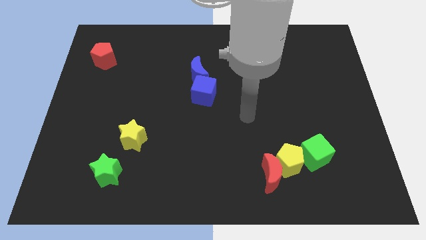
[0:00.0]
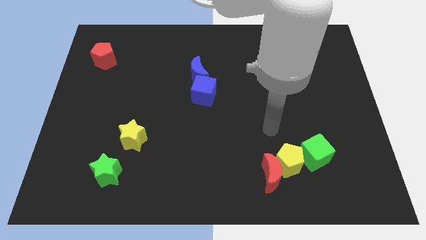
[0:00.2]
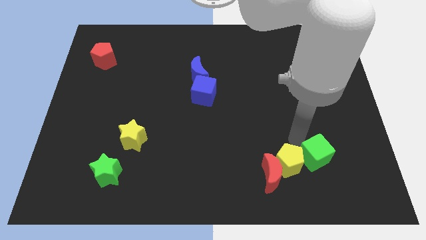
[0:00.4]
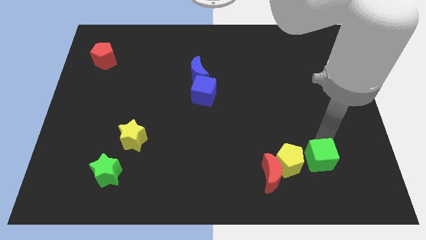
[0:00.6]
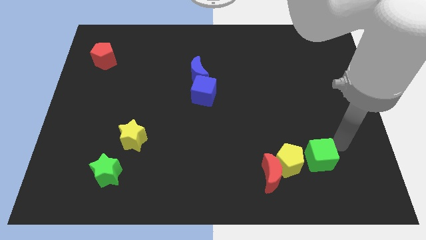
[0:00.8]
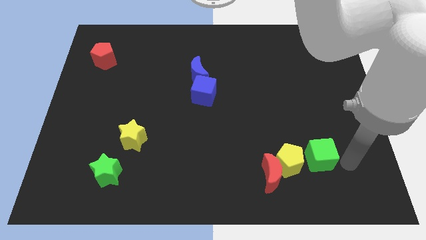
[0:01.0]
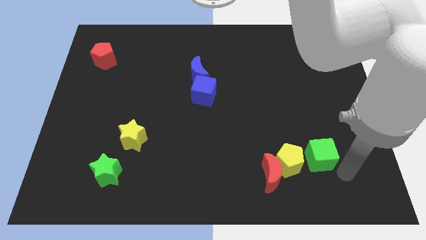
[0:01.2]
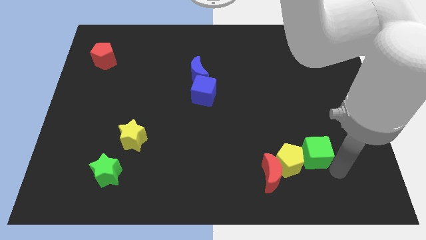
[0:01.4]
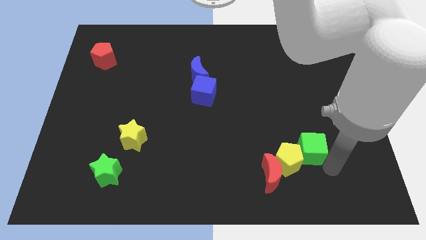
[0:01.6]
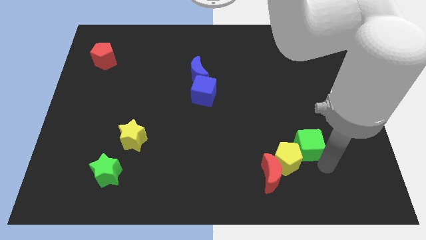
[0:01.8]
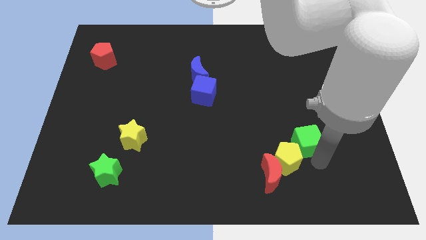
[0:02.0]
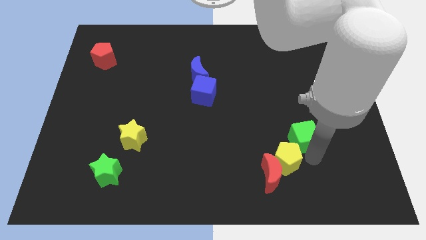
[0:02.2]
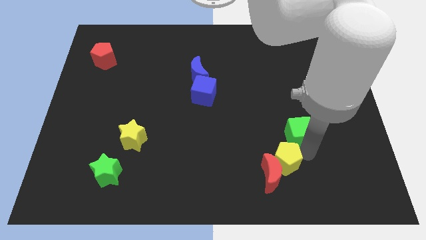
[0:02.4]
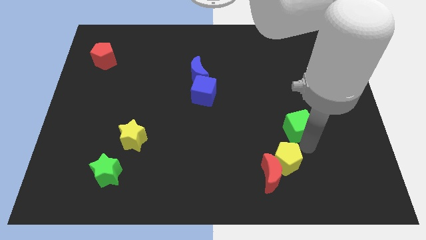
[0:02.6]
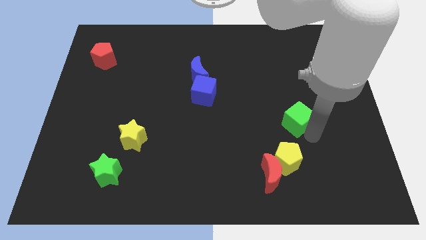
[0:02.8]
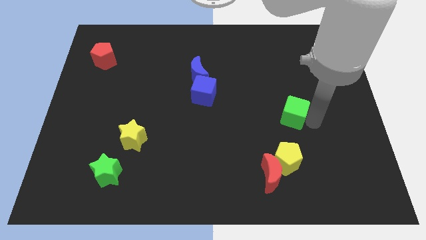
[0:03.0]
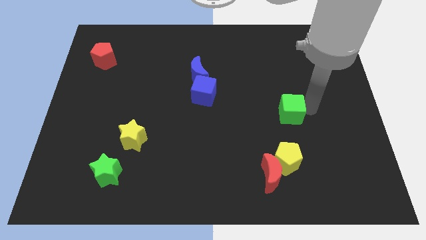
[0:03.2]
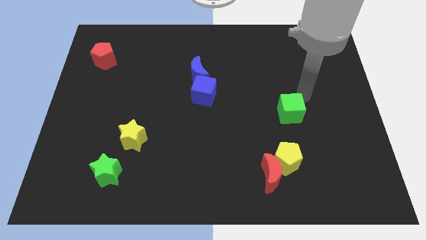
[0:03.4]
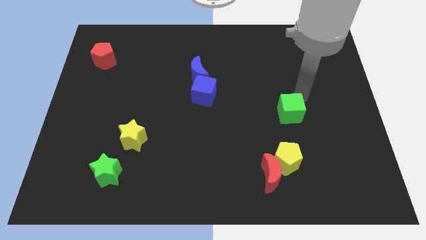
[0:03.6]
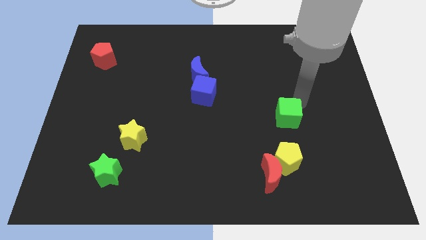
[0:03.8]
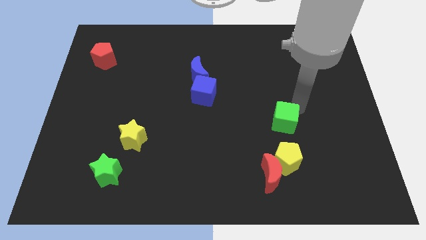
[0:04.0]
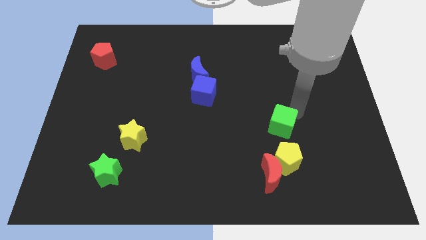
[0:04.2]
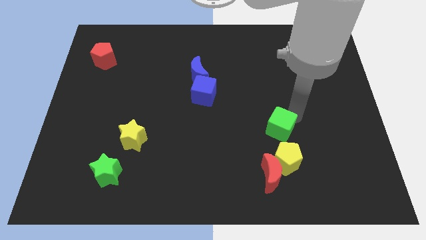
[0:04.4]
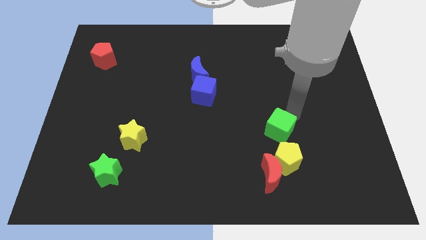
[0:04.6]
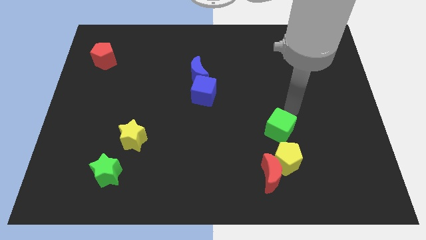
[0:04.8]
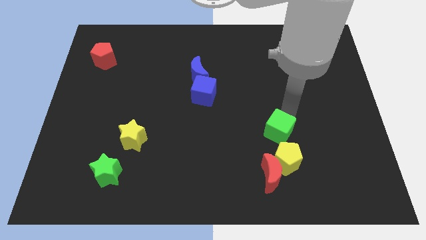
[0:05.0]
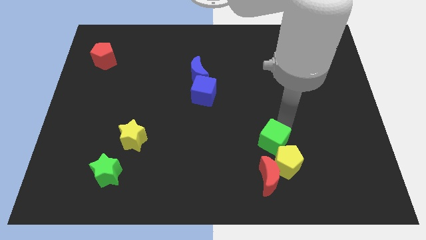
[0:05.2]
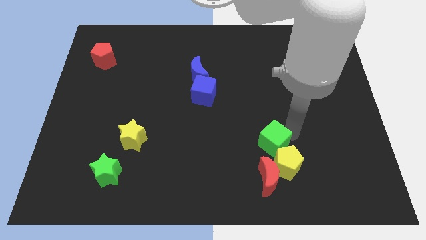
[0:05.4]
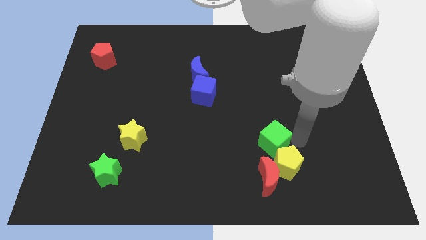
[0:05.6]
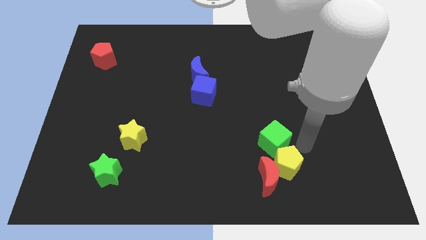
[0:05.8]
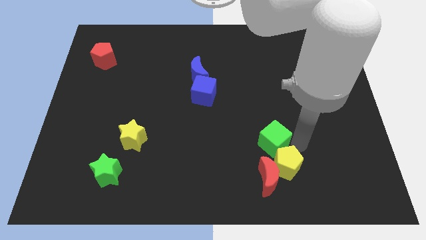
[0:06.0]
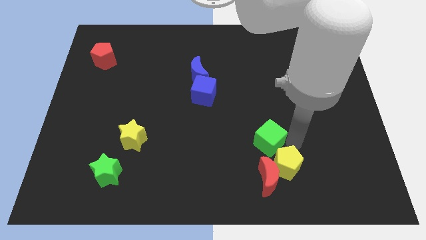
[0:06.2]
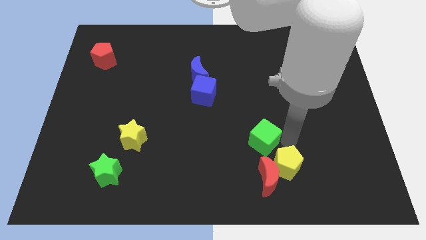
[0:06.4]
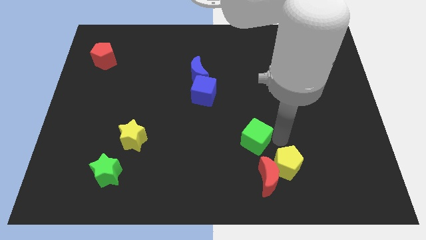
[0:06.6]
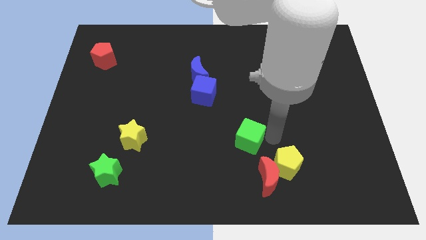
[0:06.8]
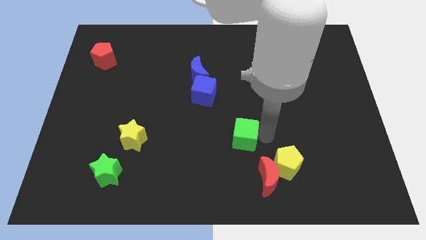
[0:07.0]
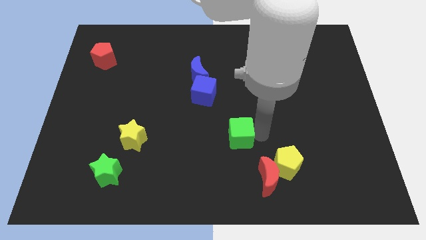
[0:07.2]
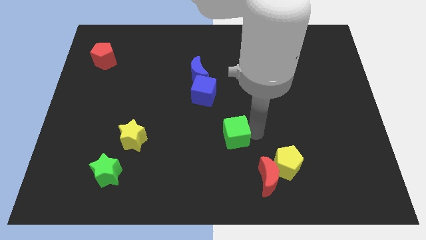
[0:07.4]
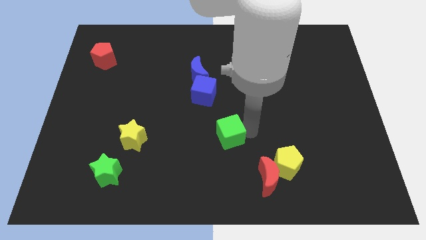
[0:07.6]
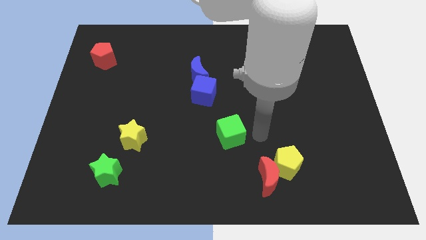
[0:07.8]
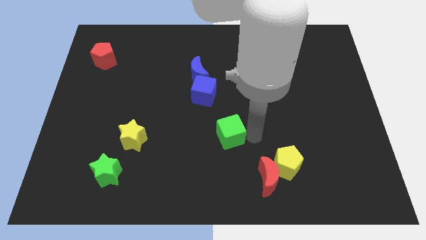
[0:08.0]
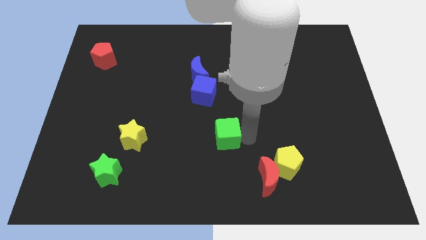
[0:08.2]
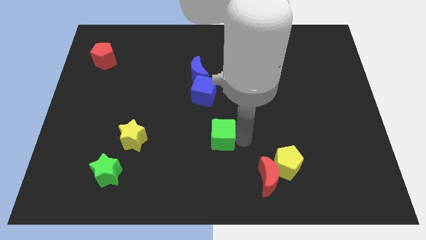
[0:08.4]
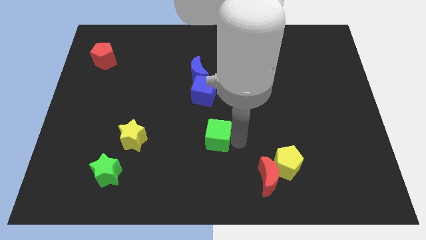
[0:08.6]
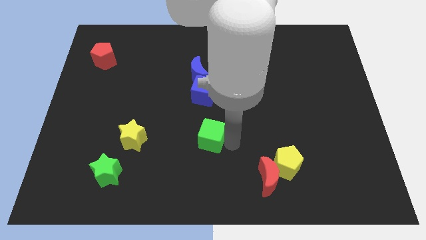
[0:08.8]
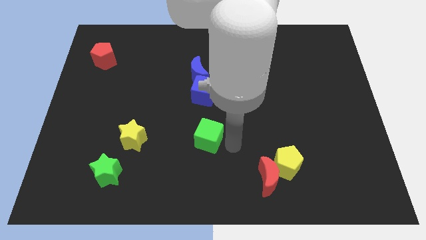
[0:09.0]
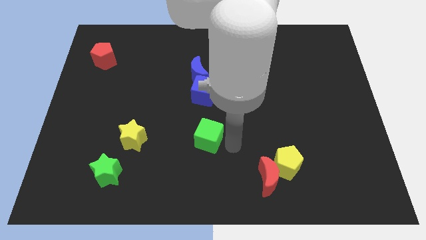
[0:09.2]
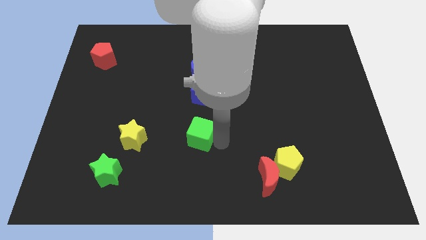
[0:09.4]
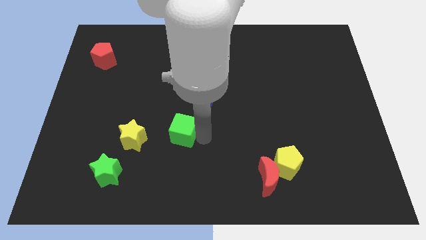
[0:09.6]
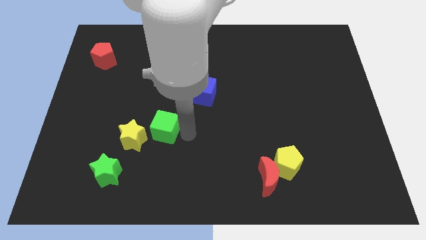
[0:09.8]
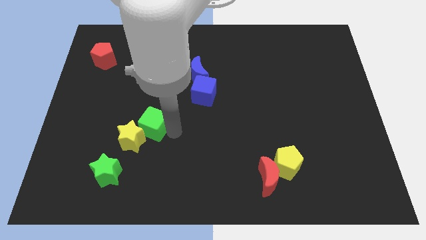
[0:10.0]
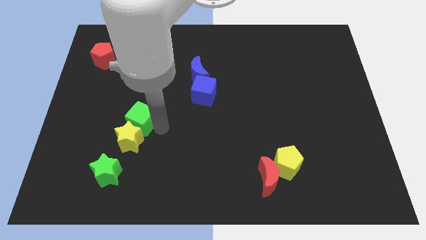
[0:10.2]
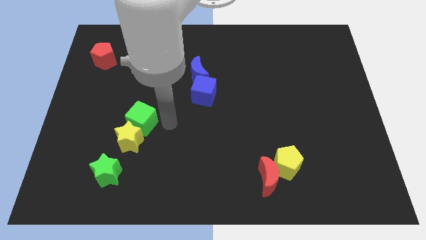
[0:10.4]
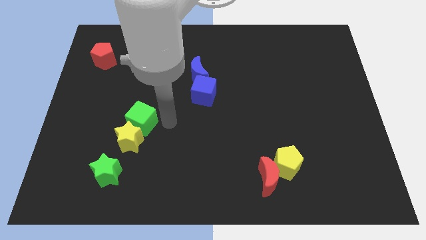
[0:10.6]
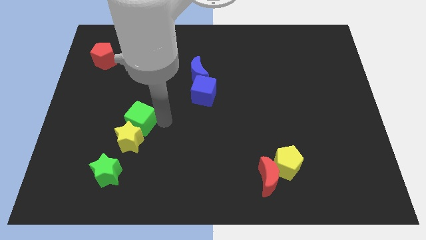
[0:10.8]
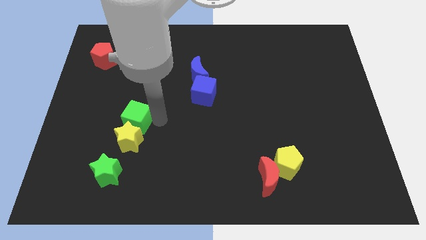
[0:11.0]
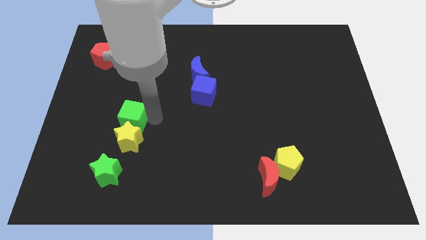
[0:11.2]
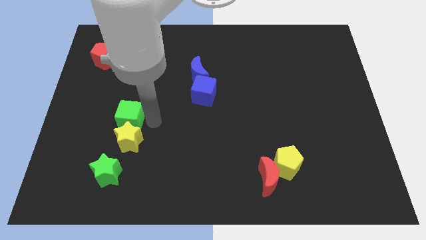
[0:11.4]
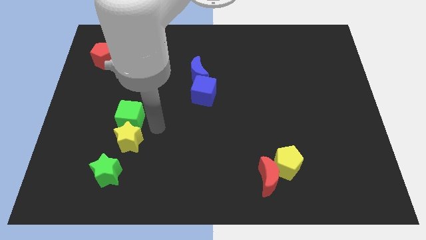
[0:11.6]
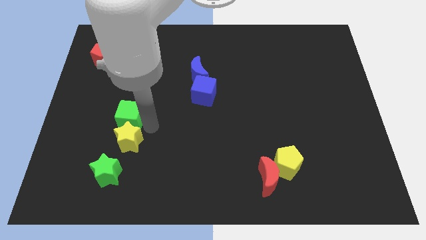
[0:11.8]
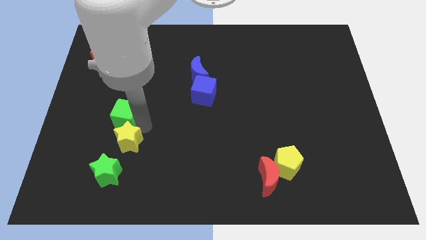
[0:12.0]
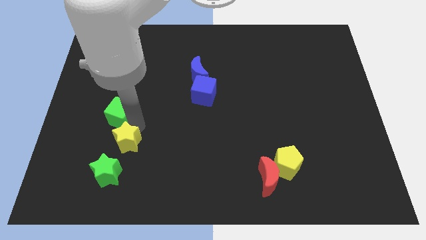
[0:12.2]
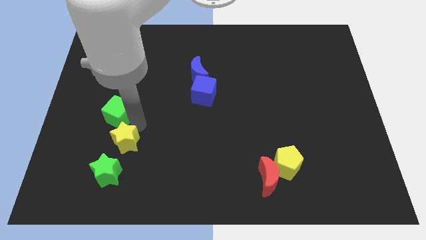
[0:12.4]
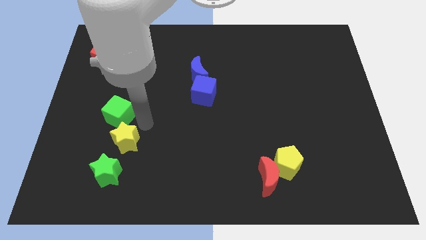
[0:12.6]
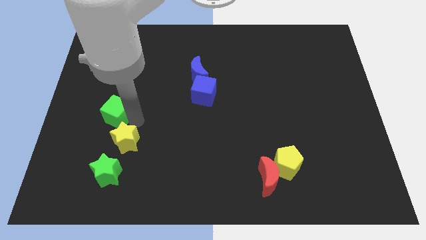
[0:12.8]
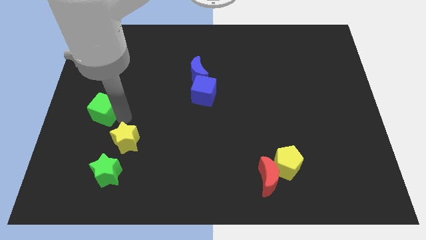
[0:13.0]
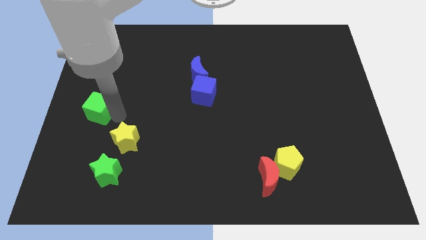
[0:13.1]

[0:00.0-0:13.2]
push the green cube to the left side

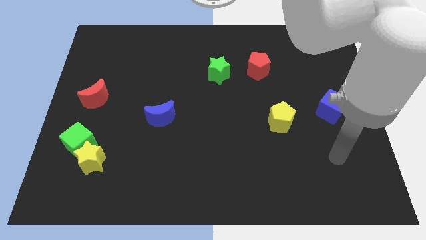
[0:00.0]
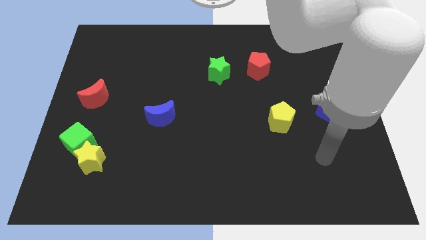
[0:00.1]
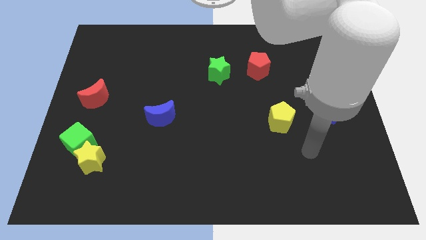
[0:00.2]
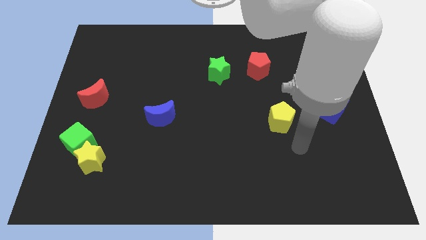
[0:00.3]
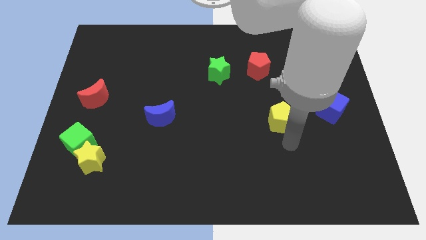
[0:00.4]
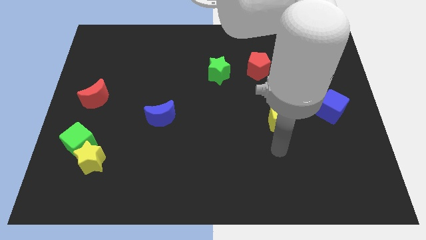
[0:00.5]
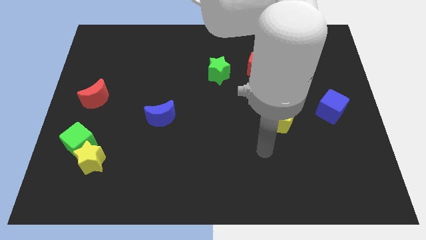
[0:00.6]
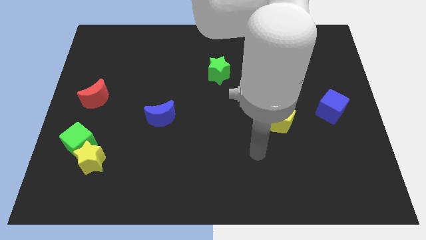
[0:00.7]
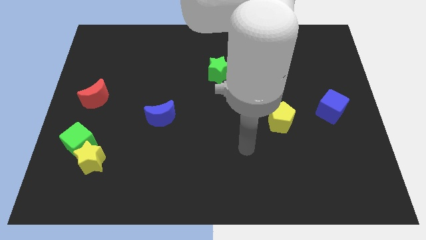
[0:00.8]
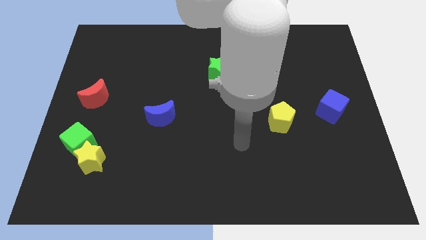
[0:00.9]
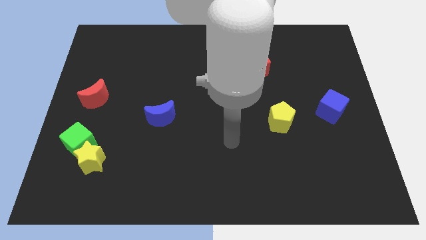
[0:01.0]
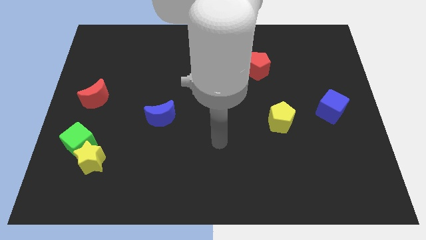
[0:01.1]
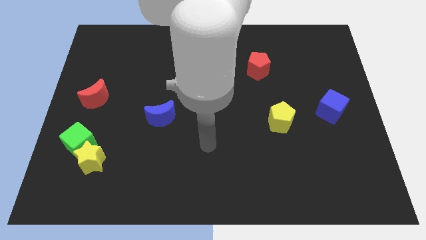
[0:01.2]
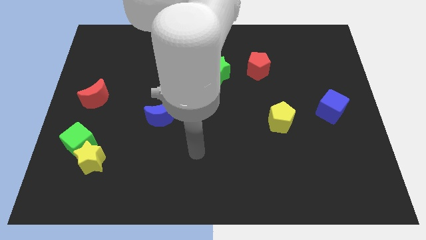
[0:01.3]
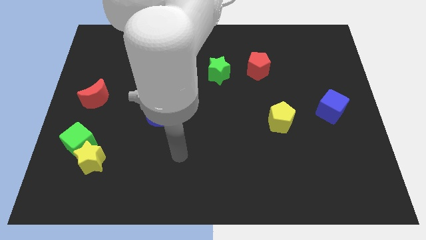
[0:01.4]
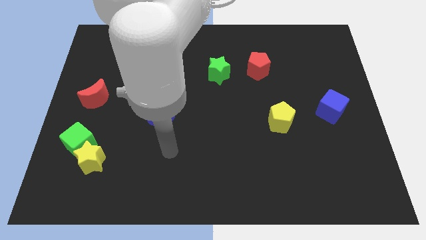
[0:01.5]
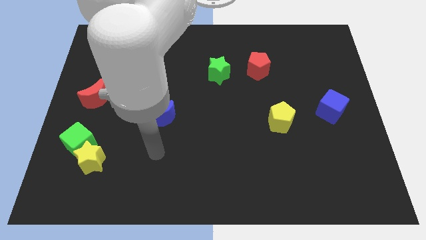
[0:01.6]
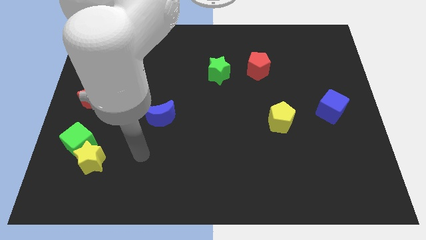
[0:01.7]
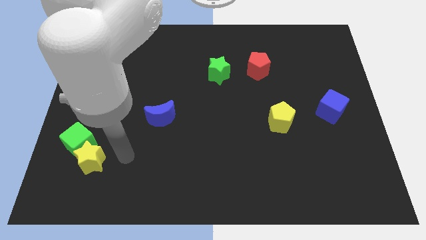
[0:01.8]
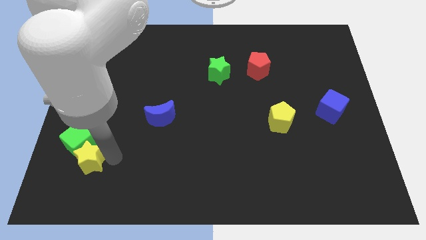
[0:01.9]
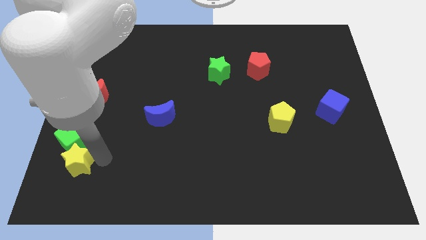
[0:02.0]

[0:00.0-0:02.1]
move the green cube to the center left
